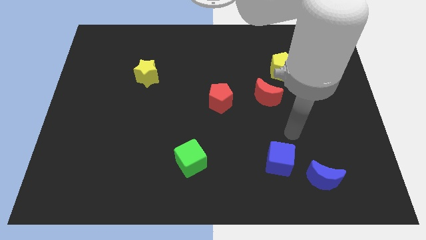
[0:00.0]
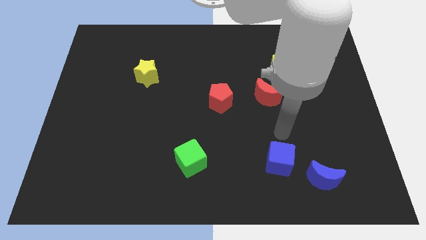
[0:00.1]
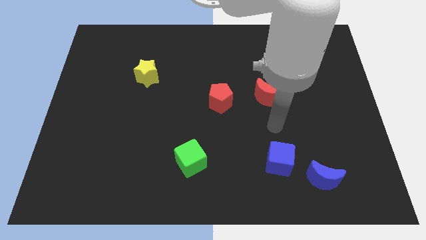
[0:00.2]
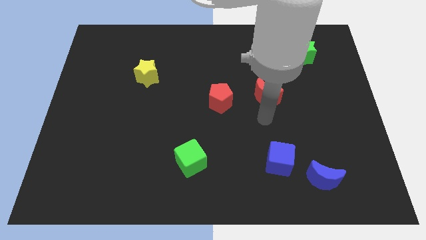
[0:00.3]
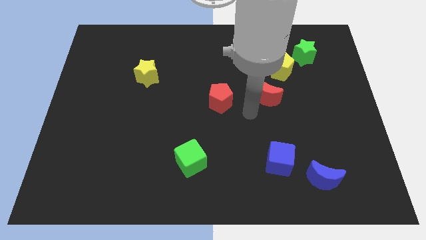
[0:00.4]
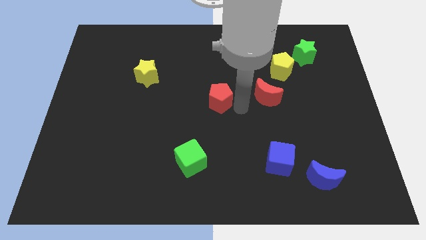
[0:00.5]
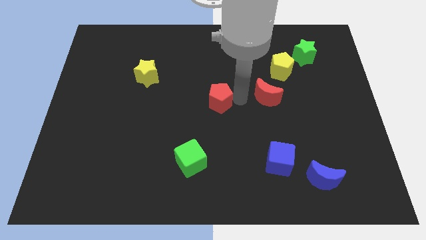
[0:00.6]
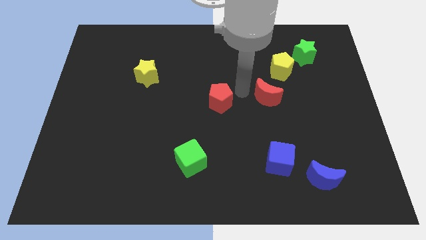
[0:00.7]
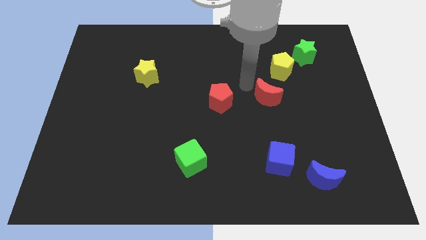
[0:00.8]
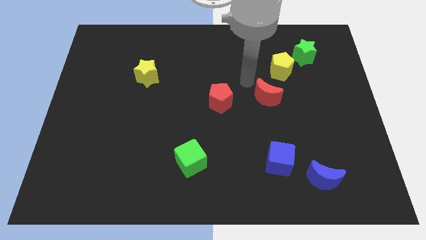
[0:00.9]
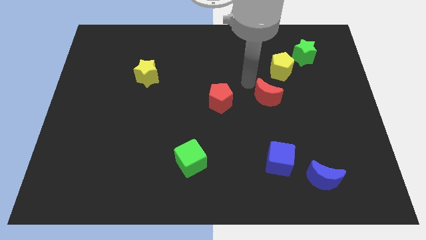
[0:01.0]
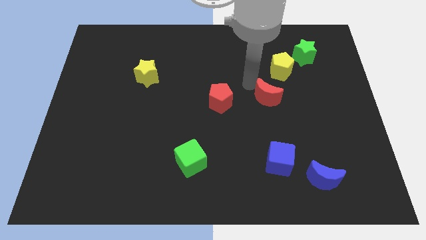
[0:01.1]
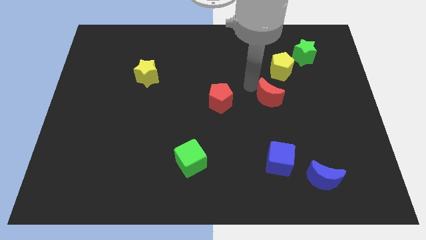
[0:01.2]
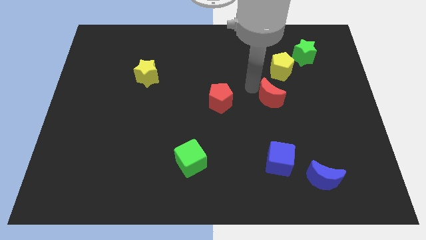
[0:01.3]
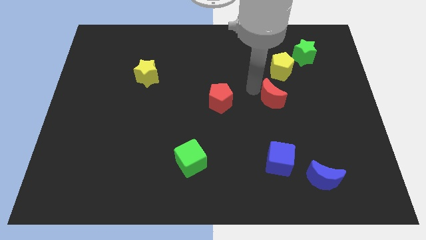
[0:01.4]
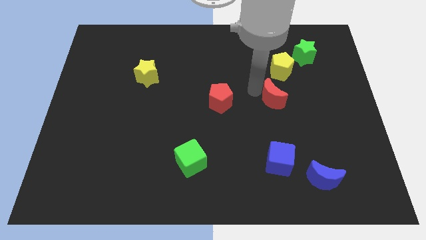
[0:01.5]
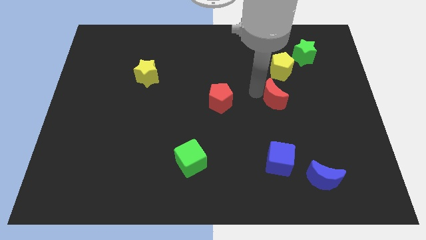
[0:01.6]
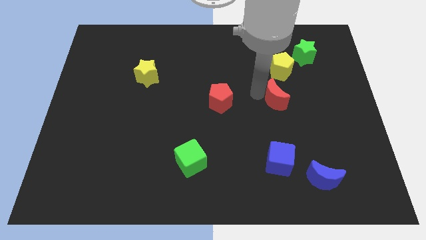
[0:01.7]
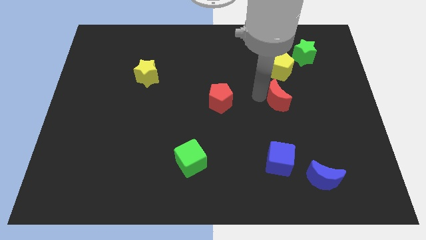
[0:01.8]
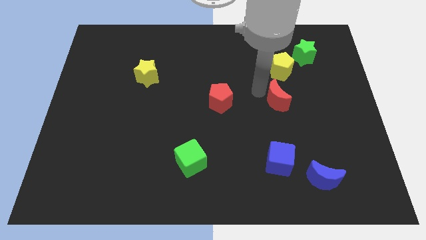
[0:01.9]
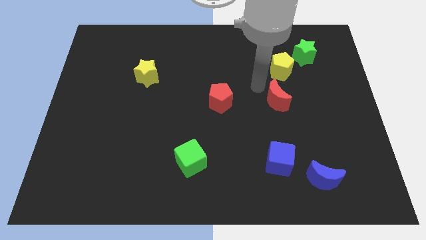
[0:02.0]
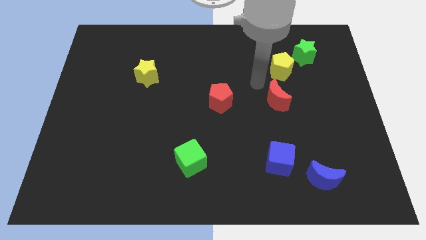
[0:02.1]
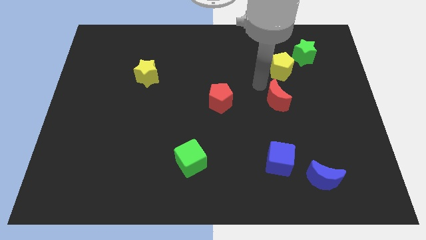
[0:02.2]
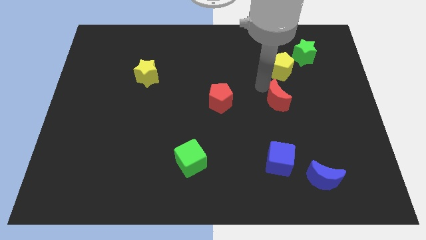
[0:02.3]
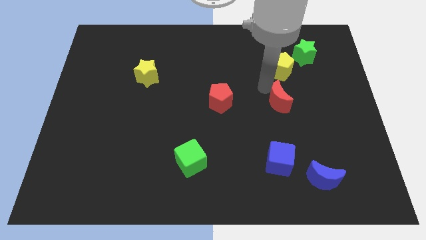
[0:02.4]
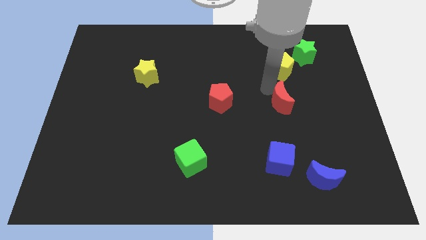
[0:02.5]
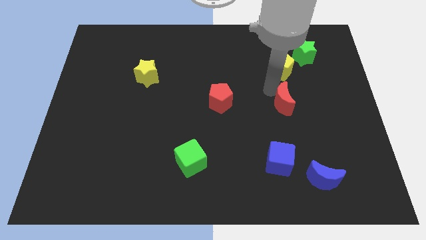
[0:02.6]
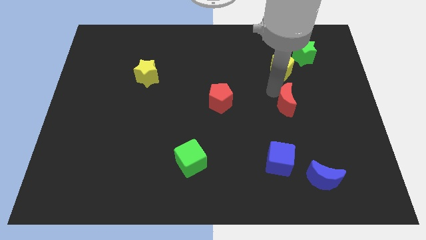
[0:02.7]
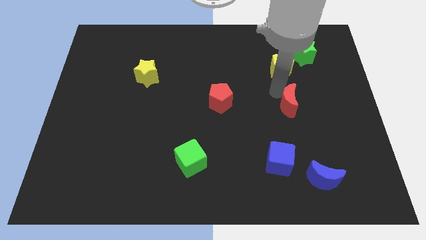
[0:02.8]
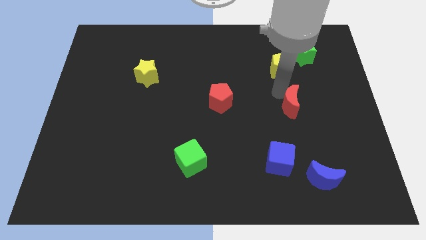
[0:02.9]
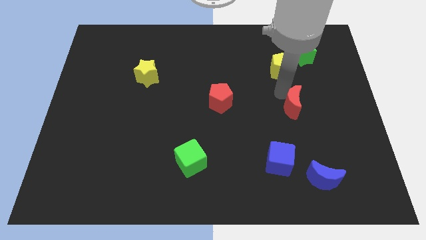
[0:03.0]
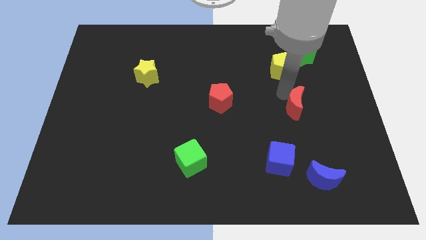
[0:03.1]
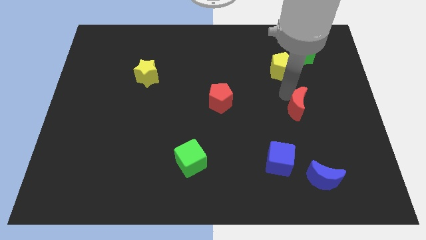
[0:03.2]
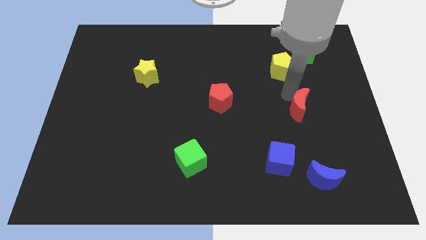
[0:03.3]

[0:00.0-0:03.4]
slightly move the red moon down and to the right diagonally

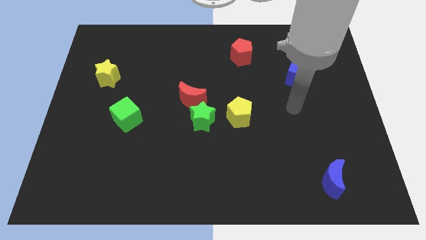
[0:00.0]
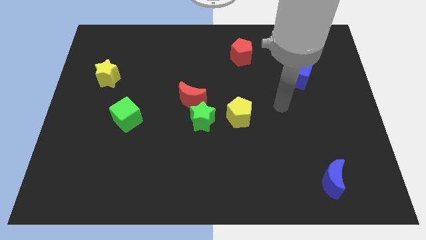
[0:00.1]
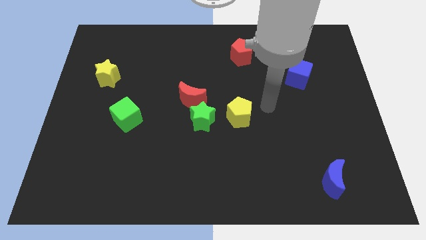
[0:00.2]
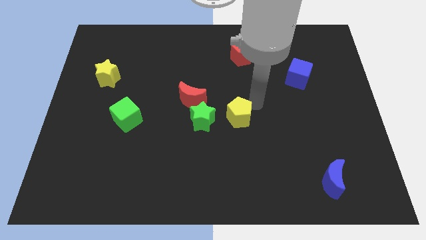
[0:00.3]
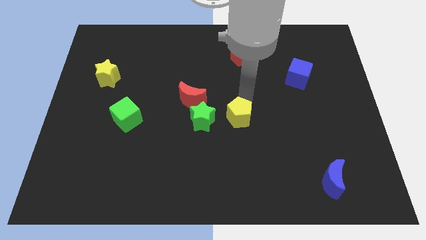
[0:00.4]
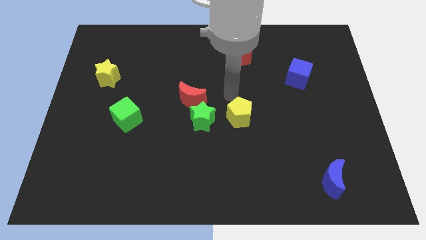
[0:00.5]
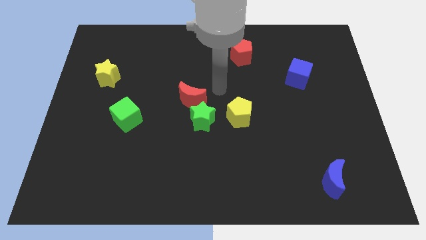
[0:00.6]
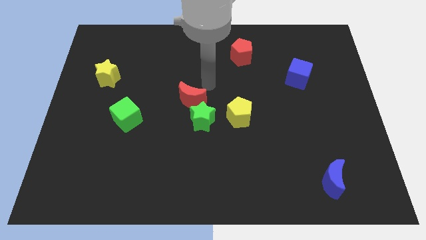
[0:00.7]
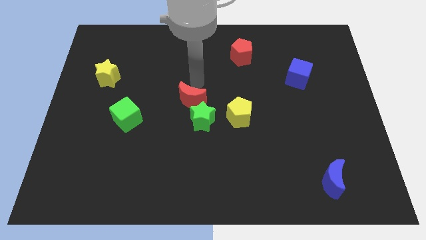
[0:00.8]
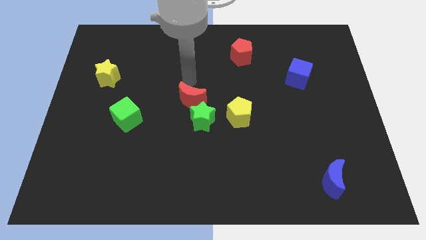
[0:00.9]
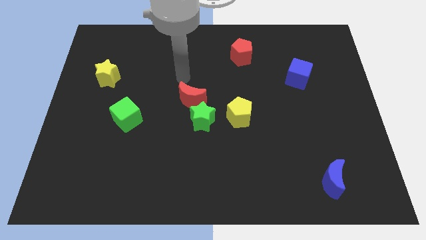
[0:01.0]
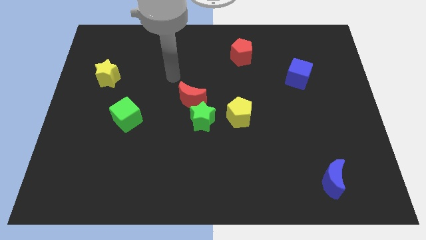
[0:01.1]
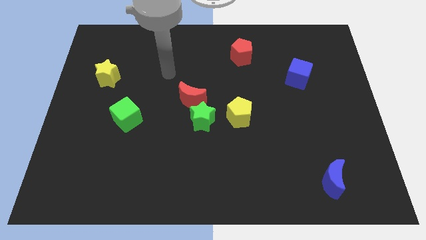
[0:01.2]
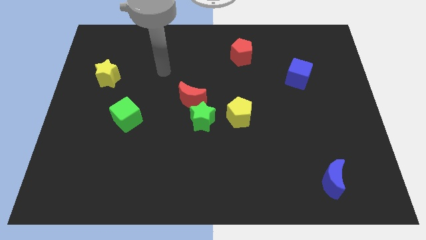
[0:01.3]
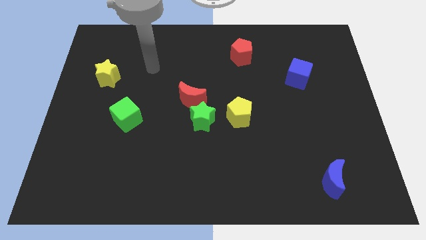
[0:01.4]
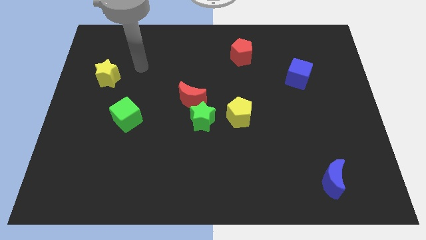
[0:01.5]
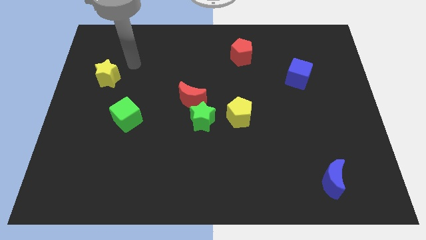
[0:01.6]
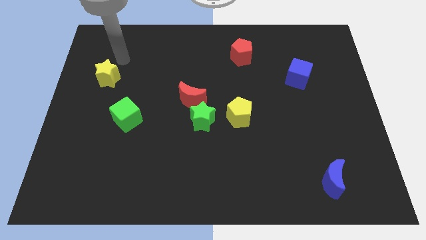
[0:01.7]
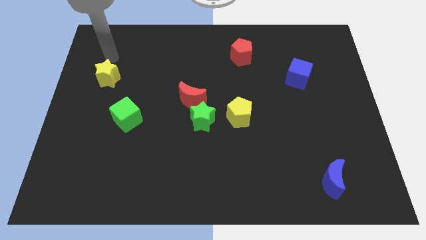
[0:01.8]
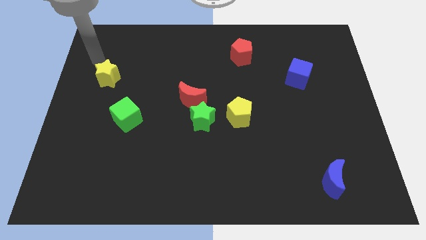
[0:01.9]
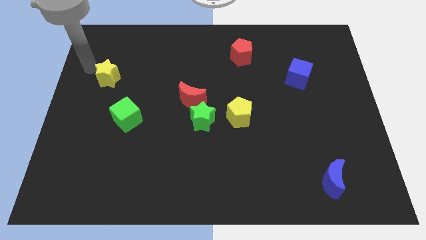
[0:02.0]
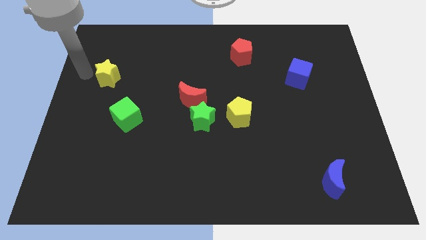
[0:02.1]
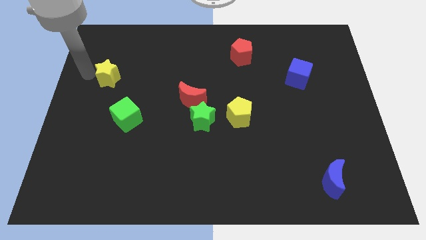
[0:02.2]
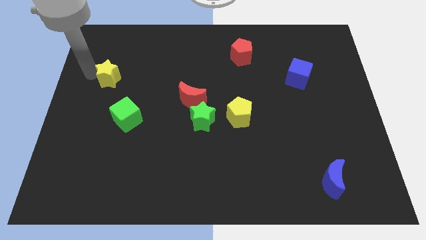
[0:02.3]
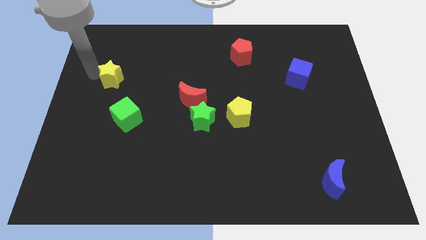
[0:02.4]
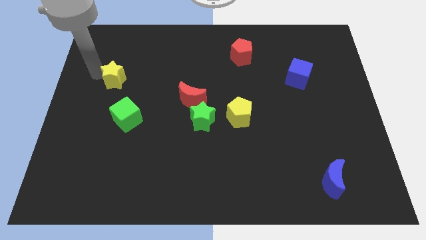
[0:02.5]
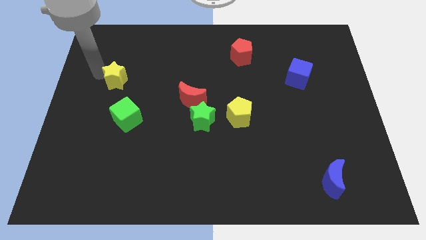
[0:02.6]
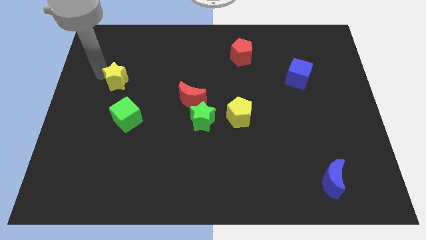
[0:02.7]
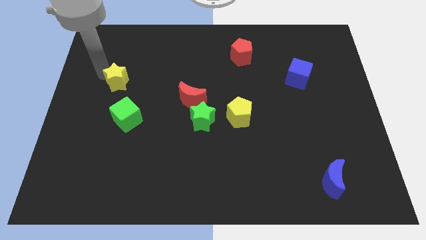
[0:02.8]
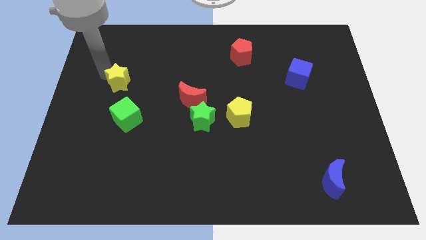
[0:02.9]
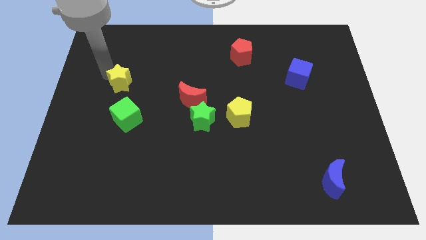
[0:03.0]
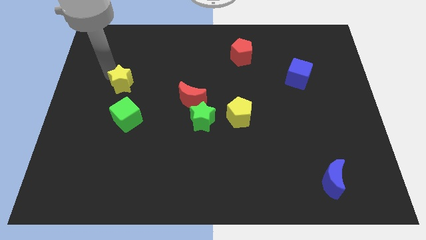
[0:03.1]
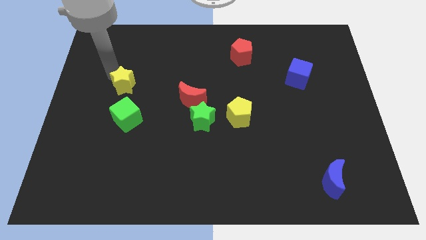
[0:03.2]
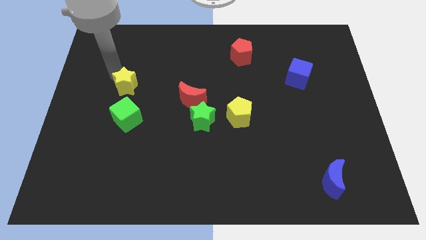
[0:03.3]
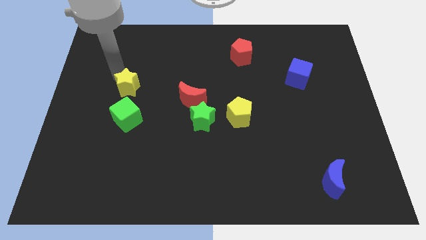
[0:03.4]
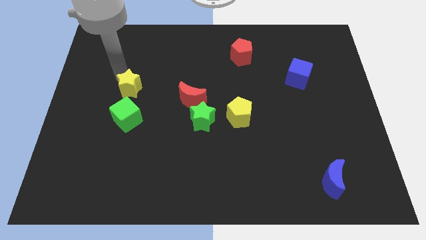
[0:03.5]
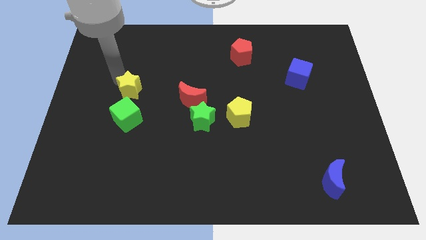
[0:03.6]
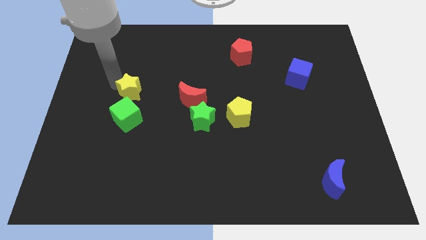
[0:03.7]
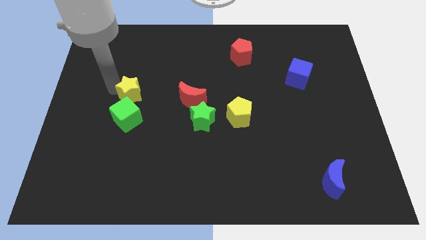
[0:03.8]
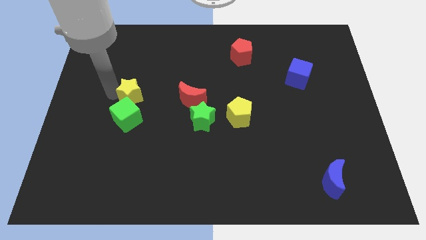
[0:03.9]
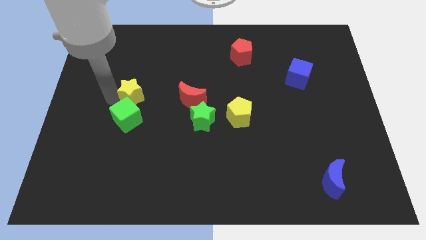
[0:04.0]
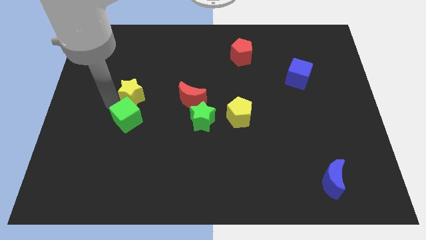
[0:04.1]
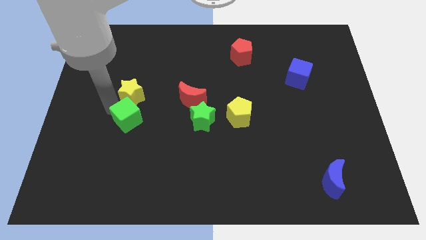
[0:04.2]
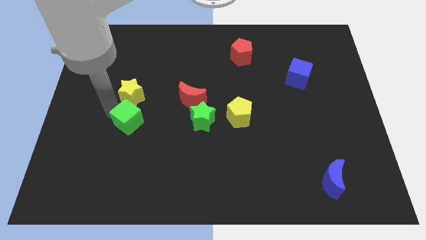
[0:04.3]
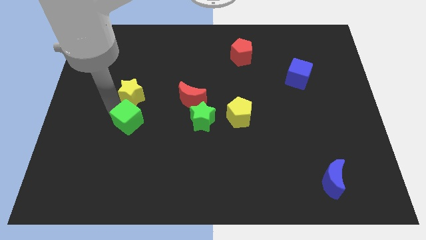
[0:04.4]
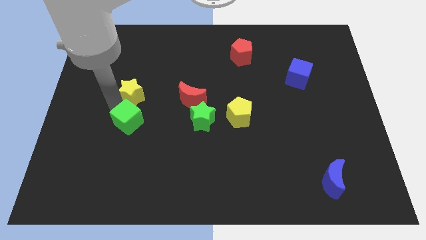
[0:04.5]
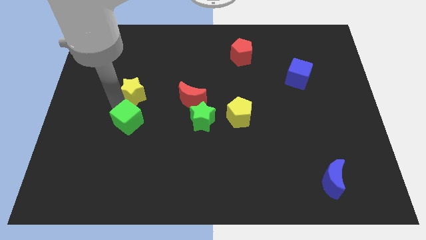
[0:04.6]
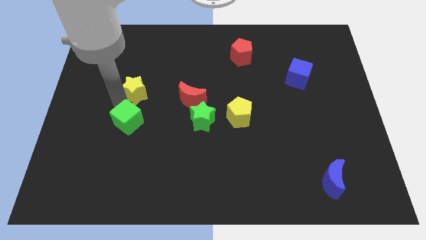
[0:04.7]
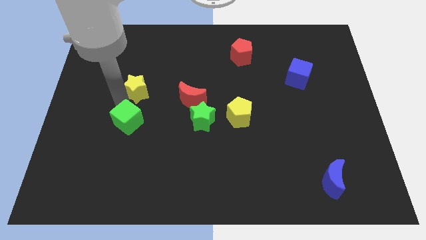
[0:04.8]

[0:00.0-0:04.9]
slightly slide the yellow star to the right

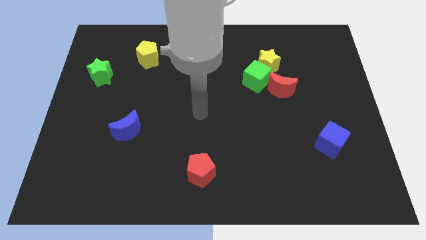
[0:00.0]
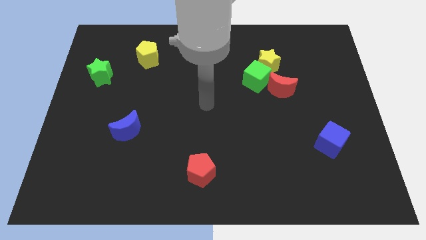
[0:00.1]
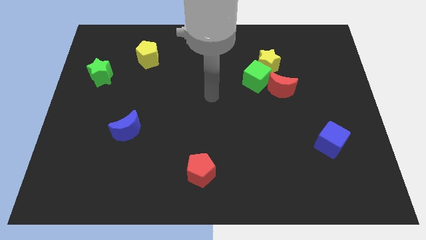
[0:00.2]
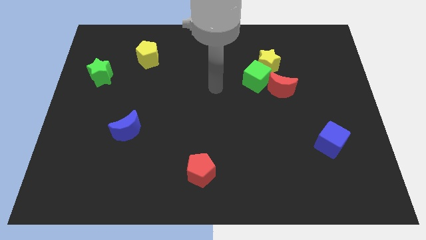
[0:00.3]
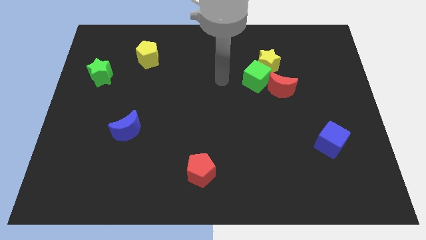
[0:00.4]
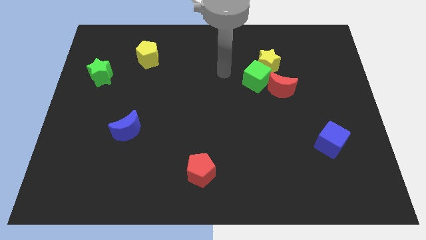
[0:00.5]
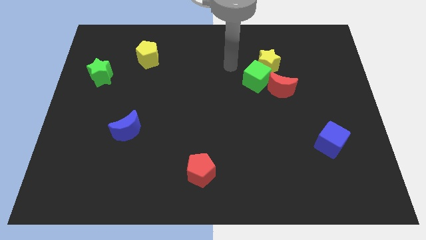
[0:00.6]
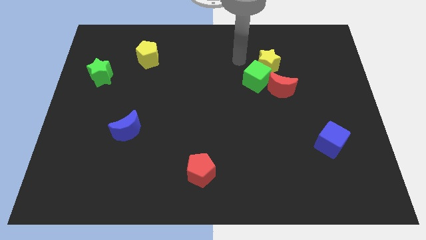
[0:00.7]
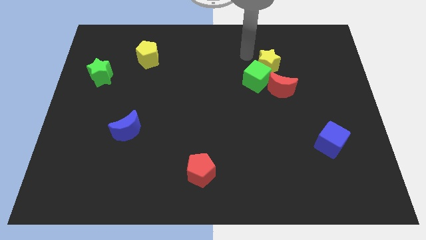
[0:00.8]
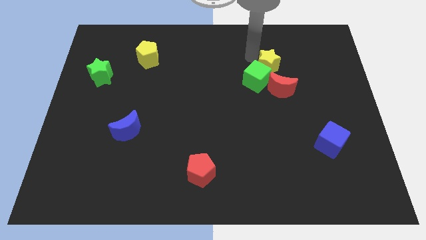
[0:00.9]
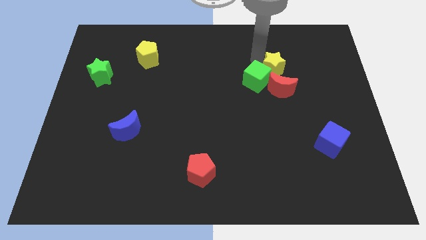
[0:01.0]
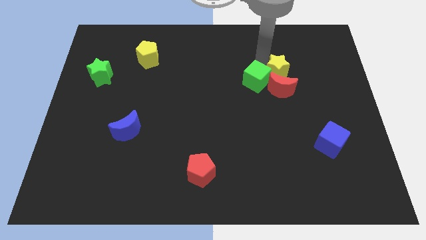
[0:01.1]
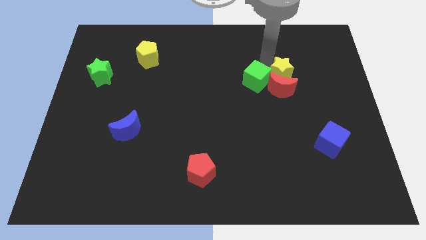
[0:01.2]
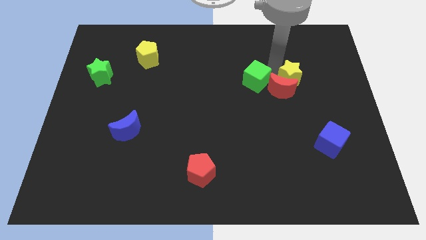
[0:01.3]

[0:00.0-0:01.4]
push the yellow star downwards and right diagonally a little bit
